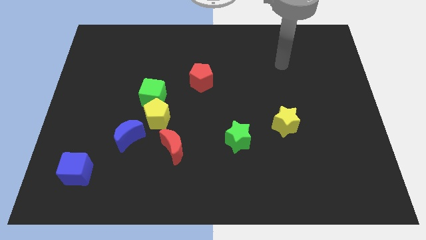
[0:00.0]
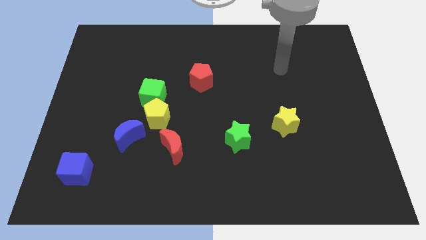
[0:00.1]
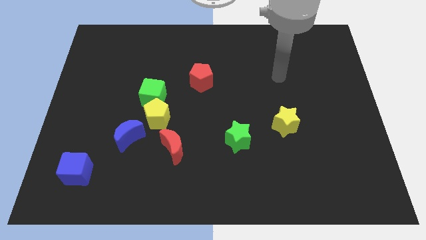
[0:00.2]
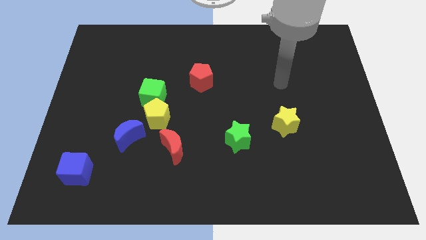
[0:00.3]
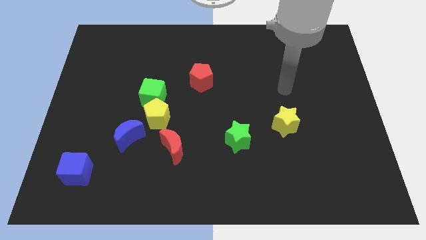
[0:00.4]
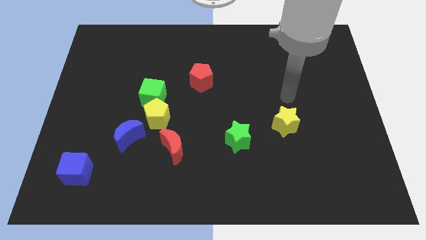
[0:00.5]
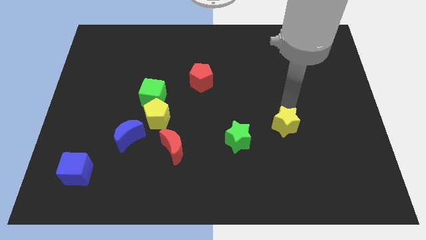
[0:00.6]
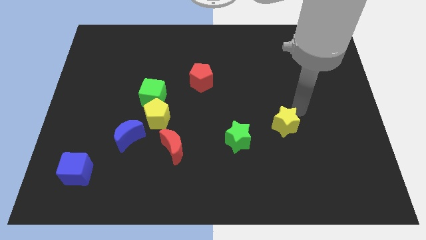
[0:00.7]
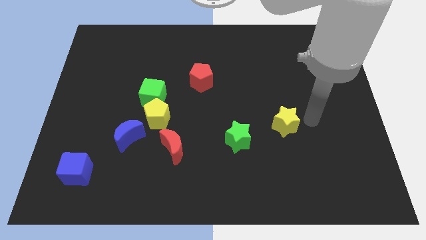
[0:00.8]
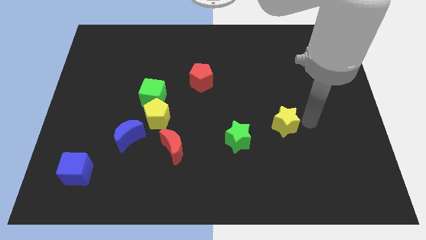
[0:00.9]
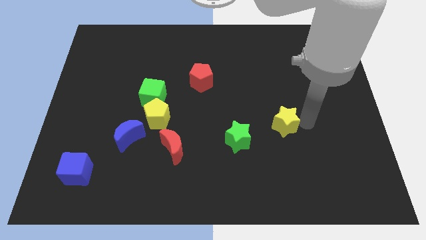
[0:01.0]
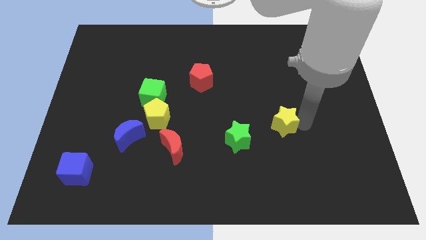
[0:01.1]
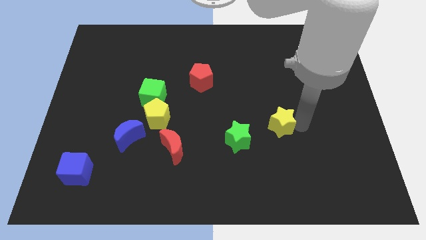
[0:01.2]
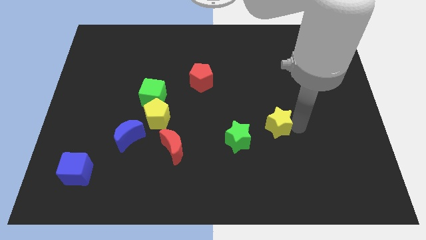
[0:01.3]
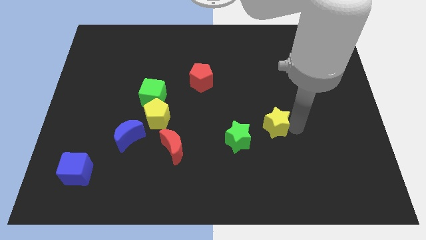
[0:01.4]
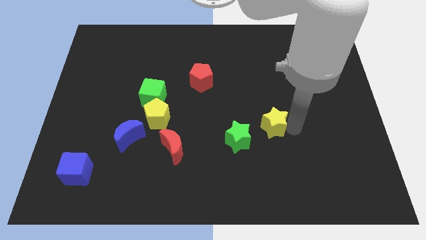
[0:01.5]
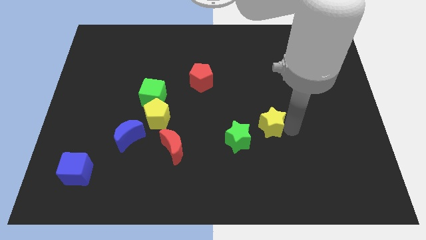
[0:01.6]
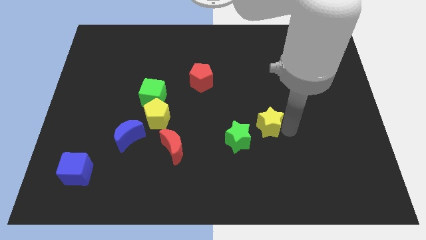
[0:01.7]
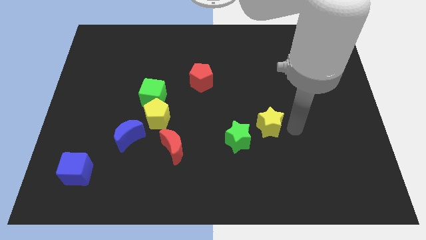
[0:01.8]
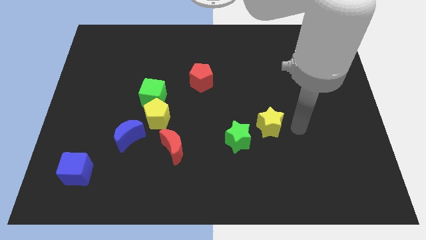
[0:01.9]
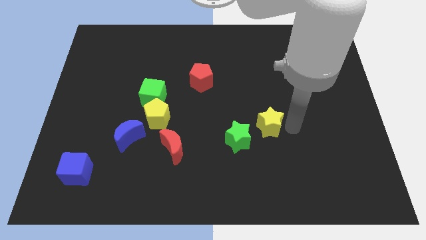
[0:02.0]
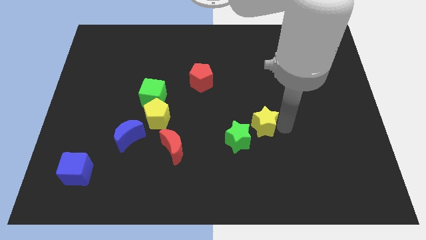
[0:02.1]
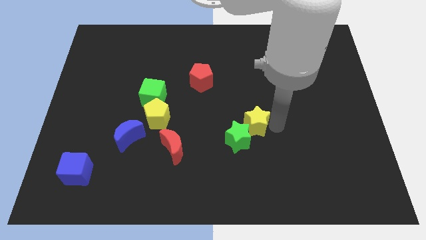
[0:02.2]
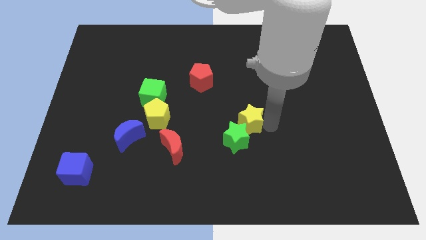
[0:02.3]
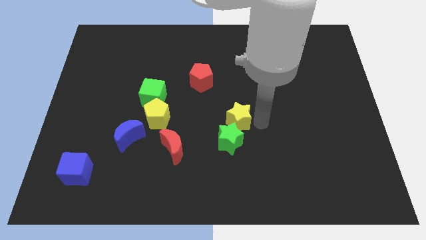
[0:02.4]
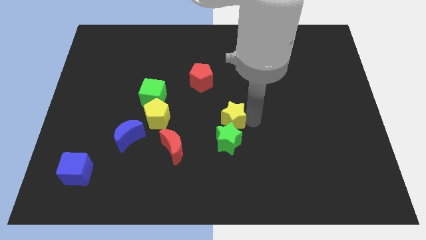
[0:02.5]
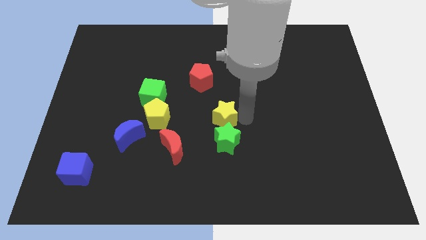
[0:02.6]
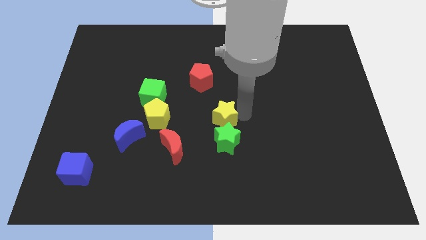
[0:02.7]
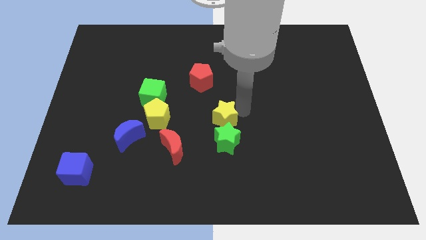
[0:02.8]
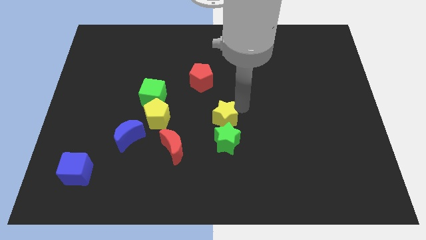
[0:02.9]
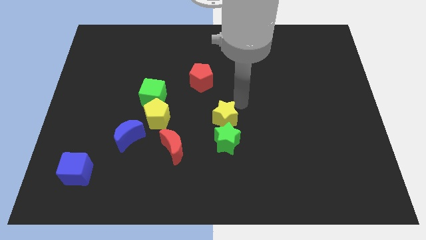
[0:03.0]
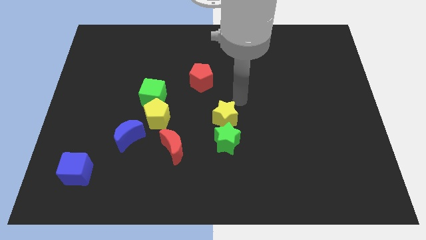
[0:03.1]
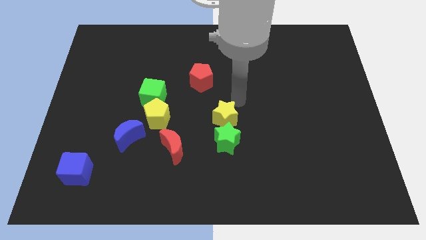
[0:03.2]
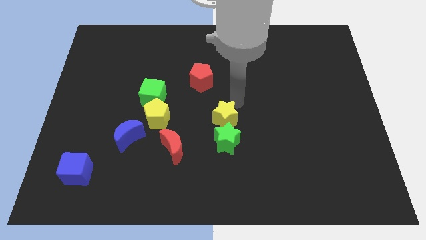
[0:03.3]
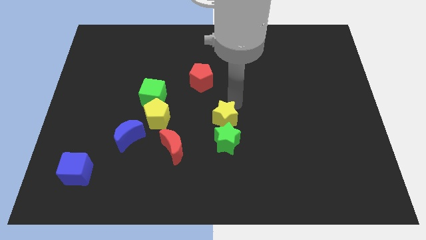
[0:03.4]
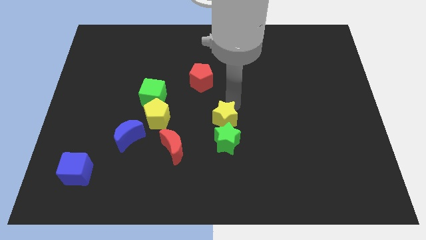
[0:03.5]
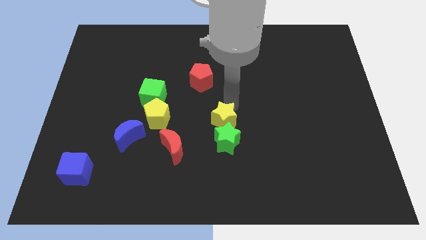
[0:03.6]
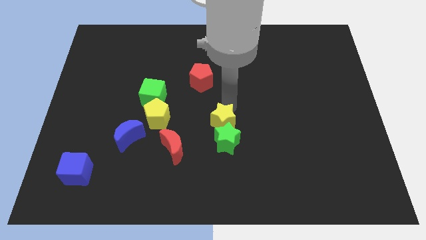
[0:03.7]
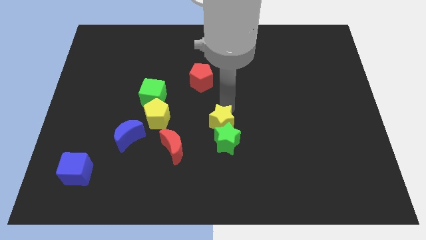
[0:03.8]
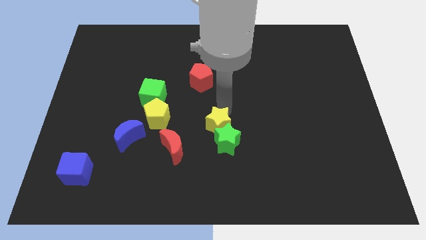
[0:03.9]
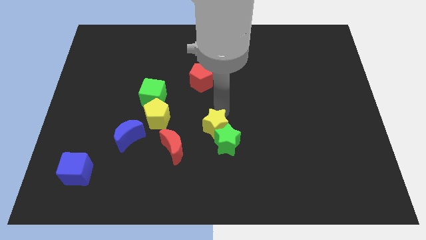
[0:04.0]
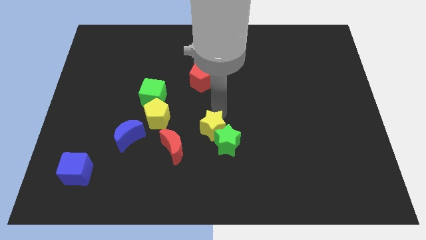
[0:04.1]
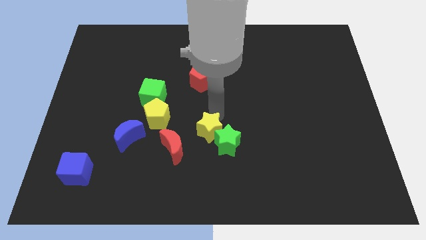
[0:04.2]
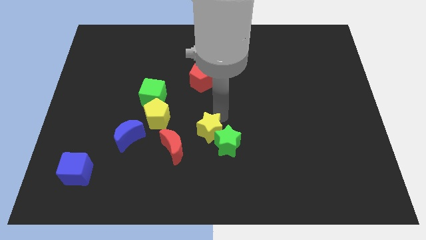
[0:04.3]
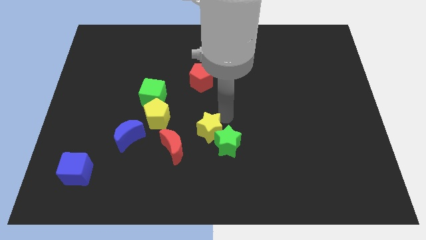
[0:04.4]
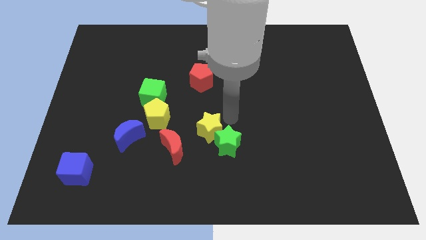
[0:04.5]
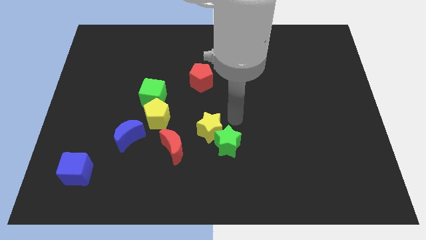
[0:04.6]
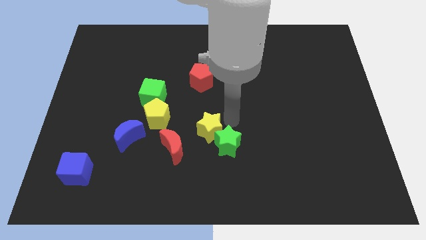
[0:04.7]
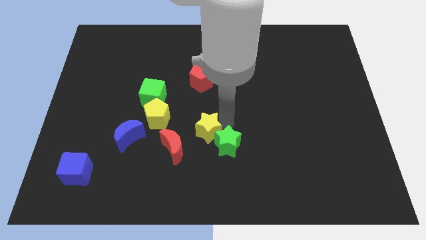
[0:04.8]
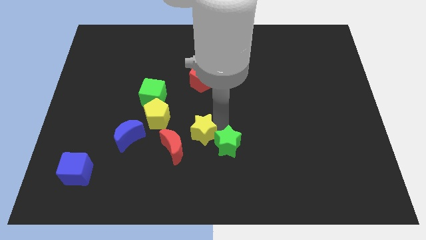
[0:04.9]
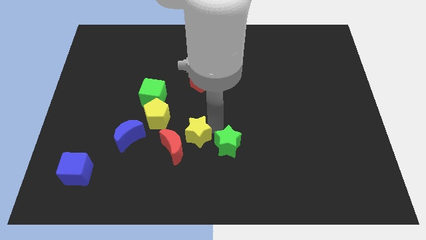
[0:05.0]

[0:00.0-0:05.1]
slide the yellow star next to the red moon

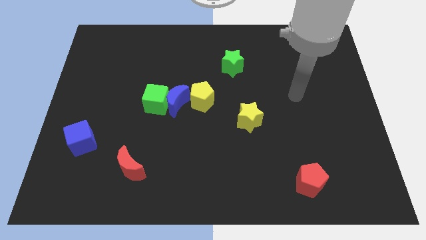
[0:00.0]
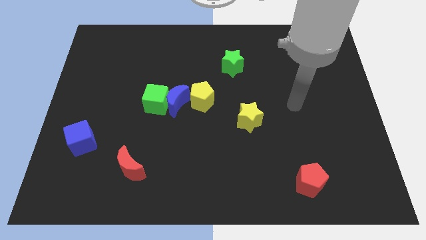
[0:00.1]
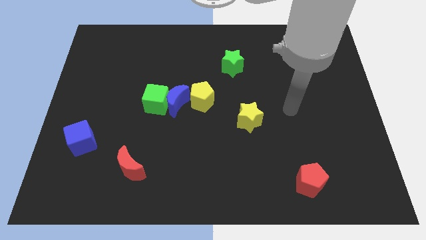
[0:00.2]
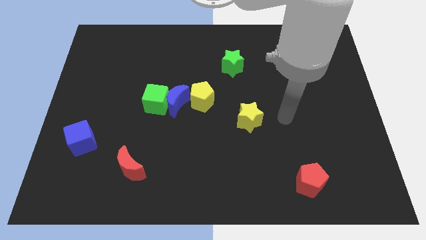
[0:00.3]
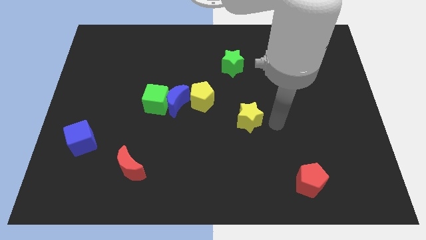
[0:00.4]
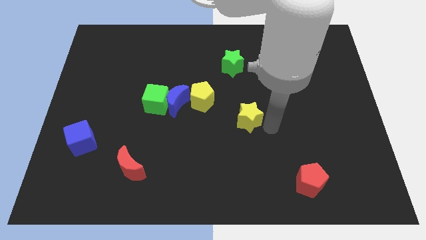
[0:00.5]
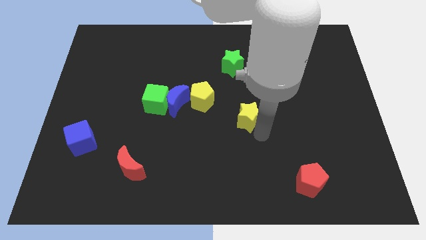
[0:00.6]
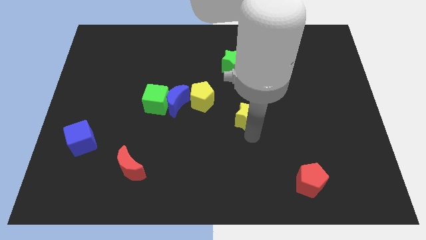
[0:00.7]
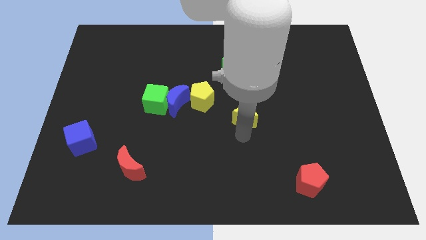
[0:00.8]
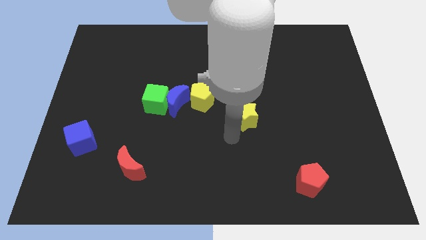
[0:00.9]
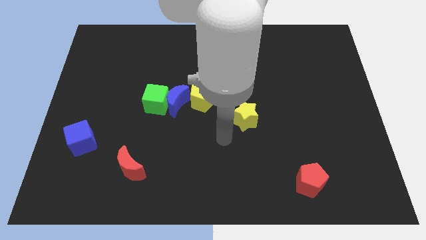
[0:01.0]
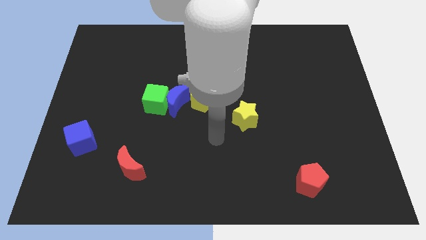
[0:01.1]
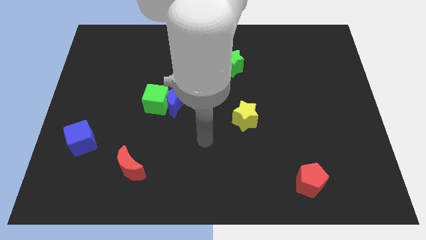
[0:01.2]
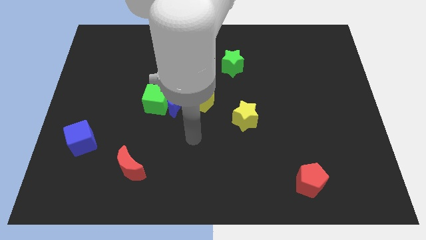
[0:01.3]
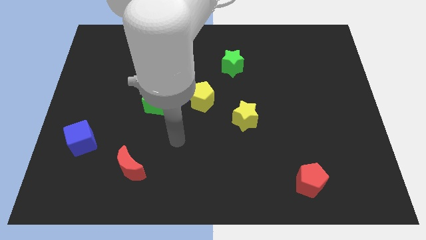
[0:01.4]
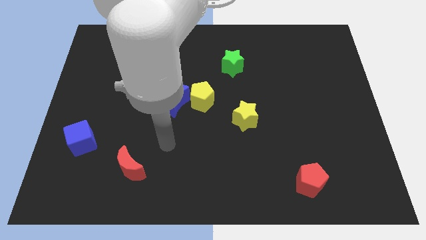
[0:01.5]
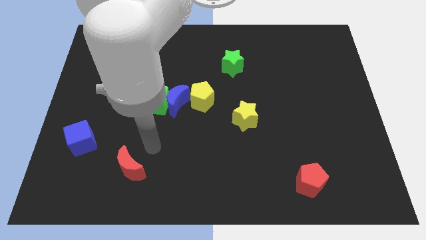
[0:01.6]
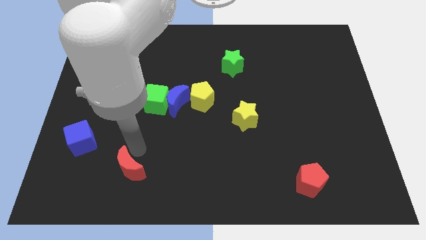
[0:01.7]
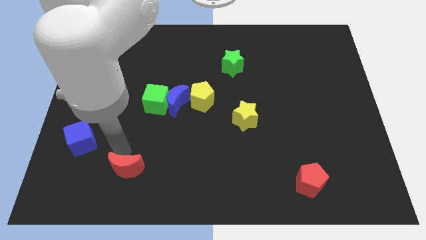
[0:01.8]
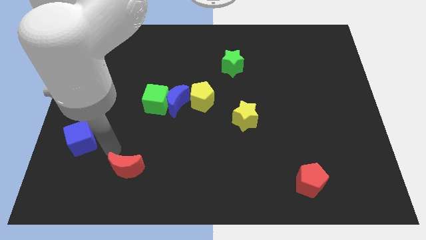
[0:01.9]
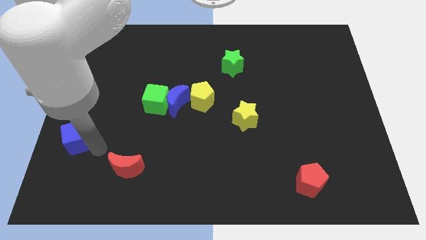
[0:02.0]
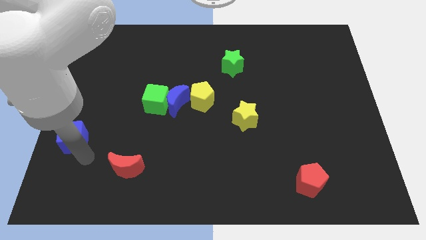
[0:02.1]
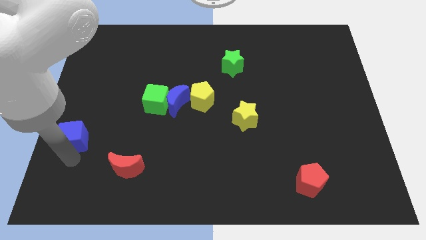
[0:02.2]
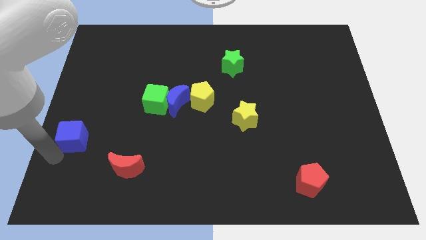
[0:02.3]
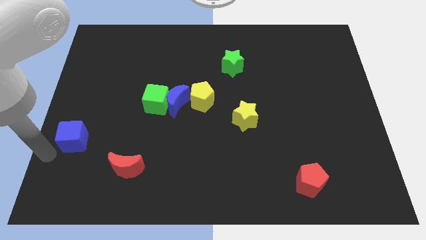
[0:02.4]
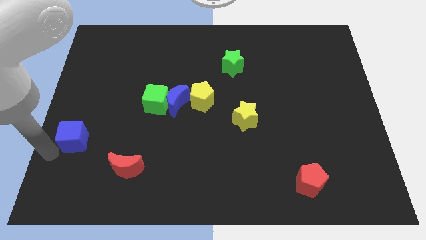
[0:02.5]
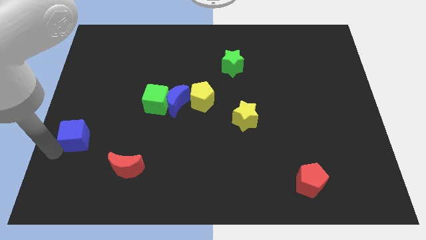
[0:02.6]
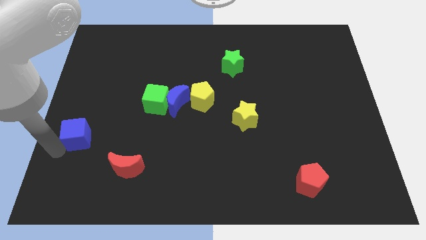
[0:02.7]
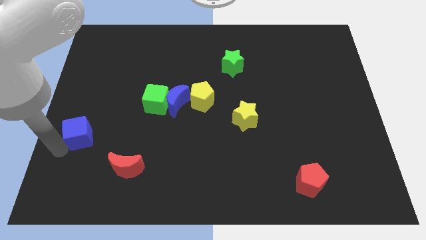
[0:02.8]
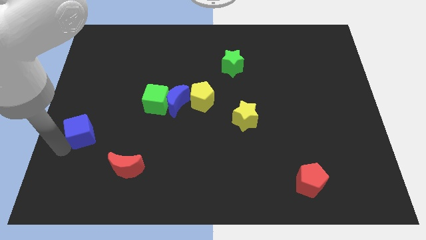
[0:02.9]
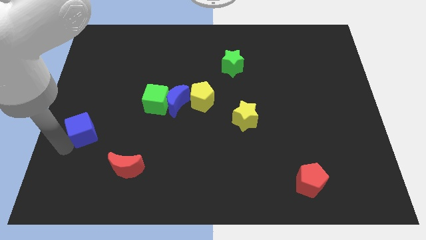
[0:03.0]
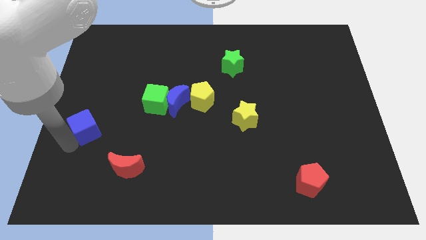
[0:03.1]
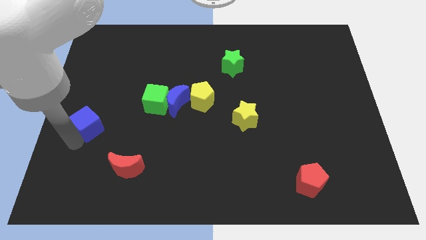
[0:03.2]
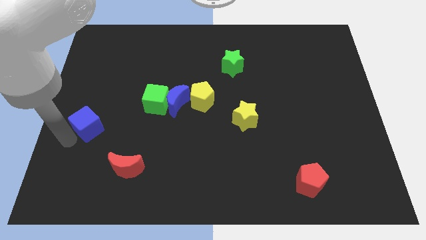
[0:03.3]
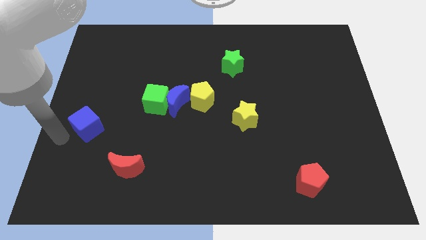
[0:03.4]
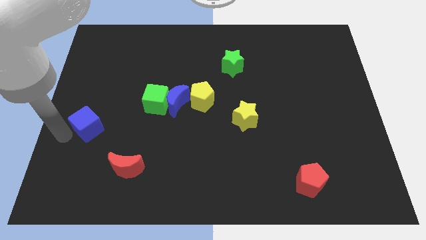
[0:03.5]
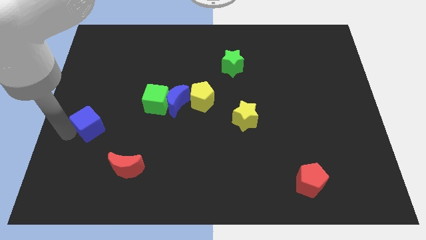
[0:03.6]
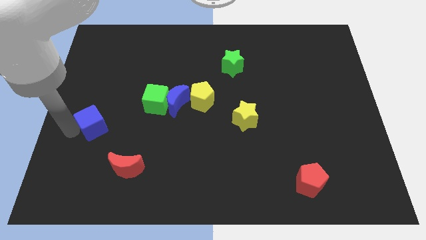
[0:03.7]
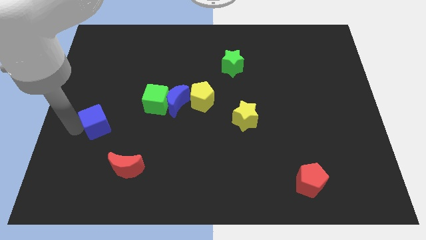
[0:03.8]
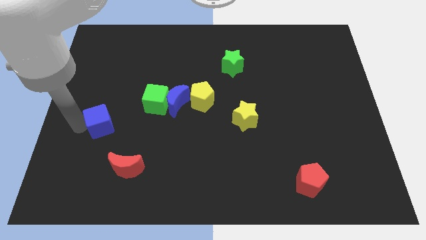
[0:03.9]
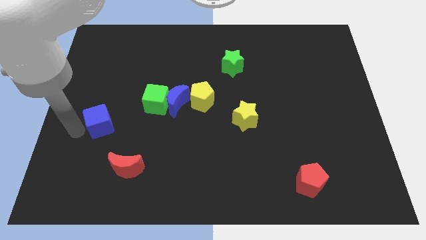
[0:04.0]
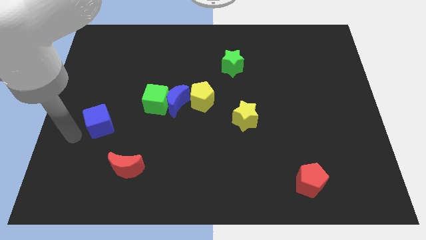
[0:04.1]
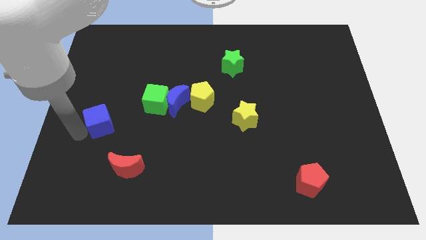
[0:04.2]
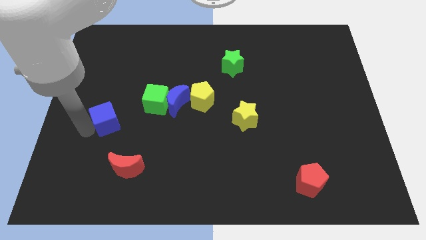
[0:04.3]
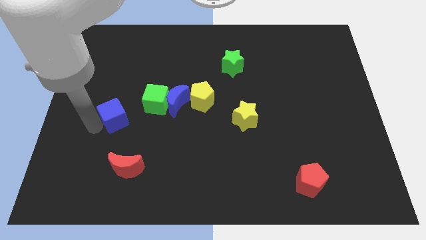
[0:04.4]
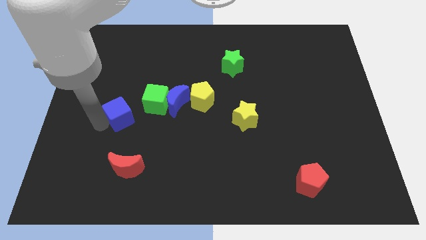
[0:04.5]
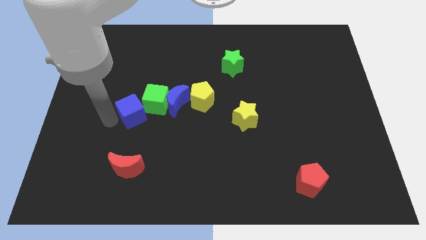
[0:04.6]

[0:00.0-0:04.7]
put the blue cube to the green cube
